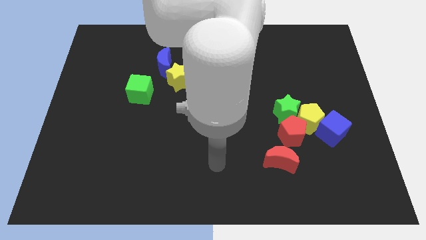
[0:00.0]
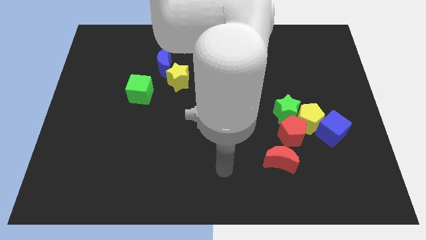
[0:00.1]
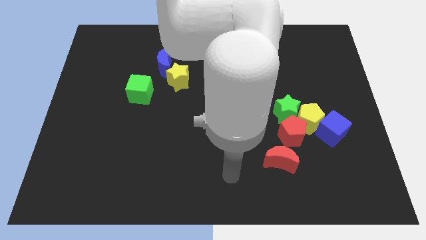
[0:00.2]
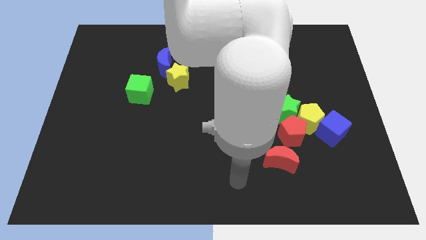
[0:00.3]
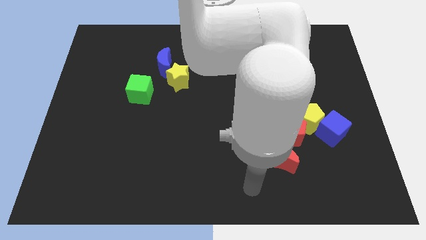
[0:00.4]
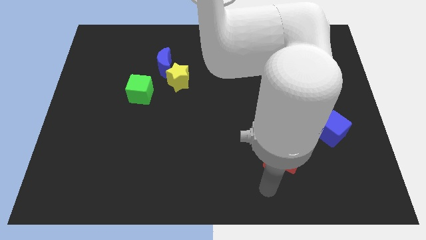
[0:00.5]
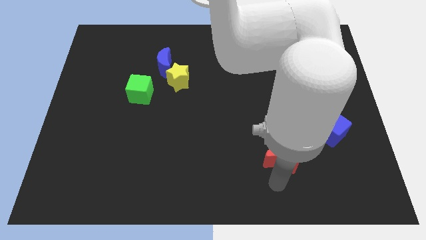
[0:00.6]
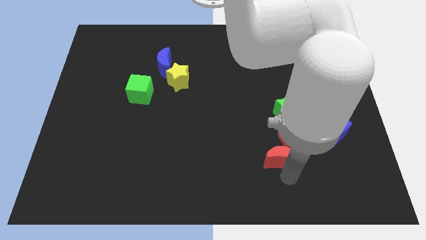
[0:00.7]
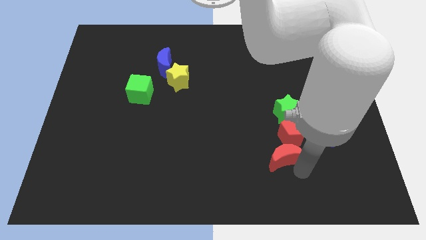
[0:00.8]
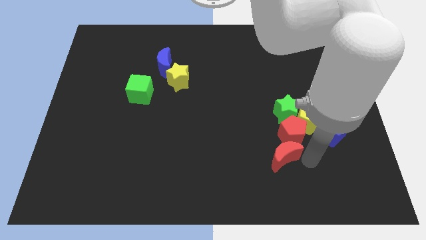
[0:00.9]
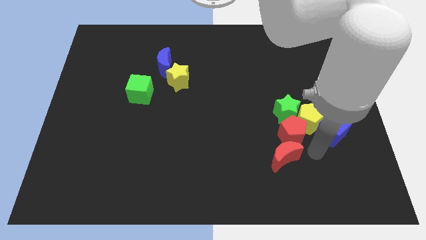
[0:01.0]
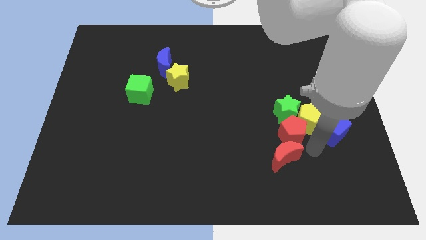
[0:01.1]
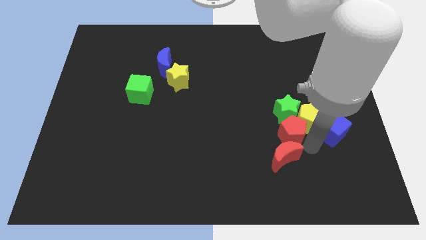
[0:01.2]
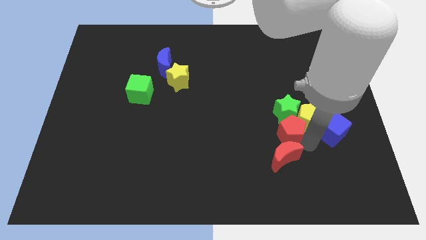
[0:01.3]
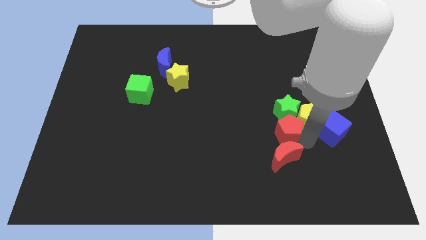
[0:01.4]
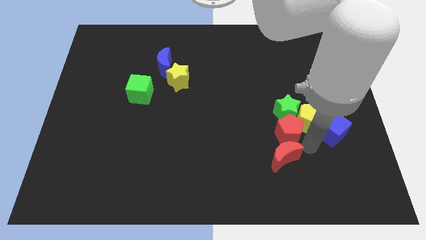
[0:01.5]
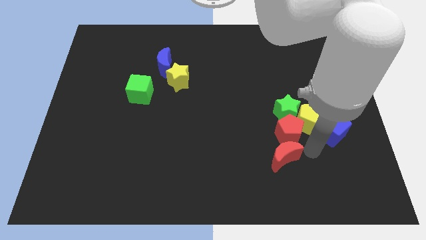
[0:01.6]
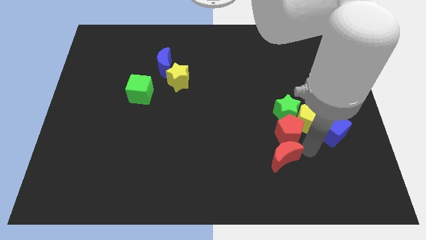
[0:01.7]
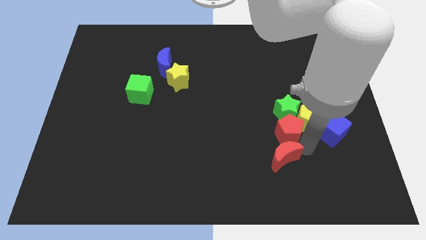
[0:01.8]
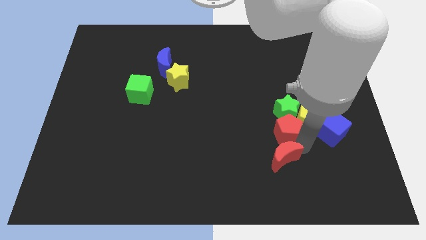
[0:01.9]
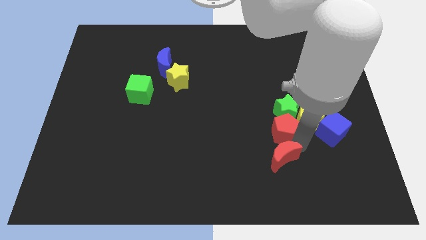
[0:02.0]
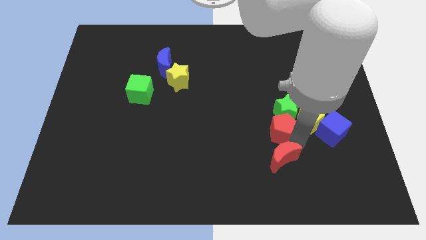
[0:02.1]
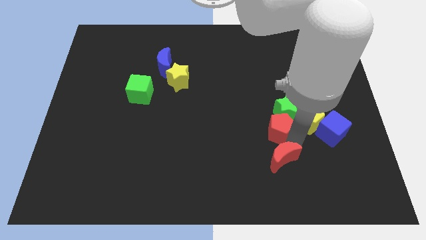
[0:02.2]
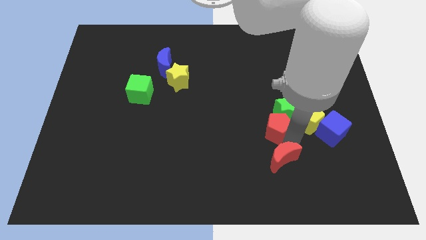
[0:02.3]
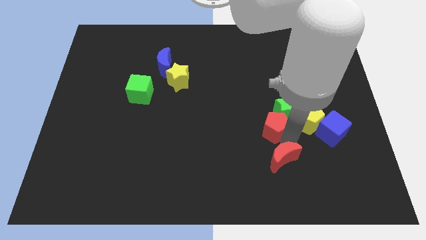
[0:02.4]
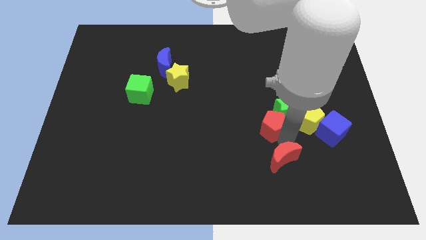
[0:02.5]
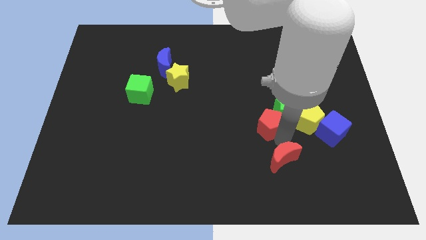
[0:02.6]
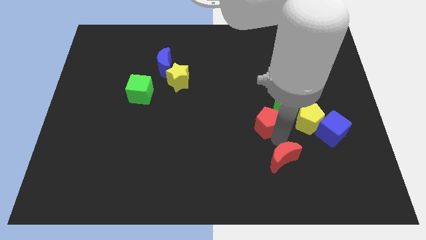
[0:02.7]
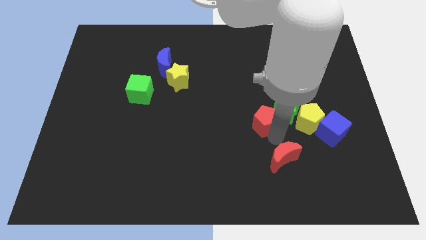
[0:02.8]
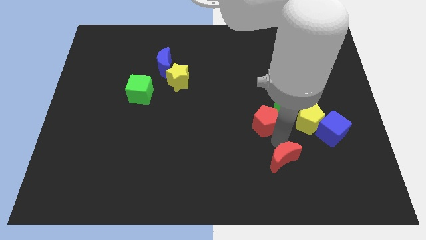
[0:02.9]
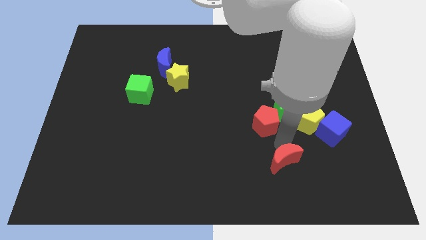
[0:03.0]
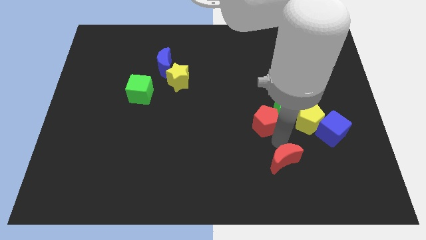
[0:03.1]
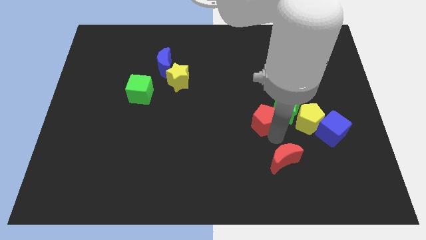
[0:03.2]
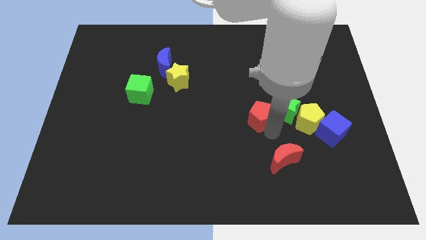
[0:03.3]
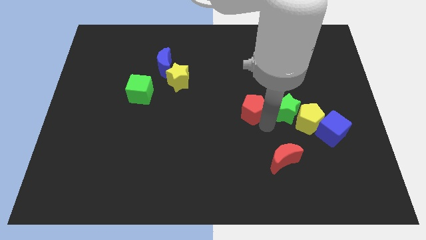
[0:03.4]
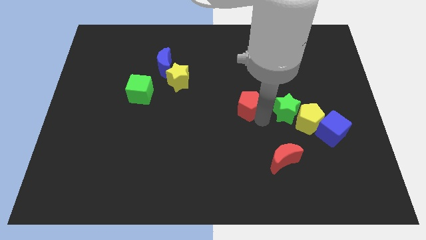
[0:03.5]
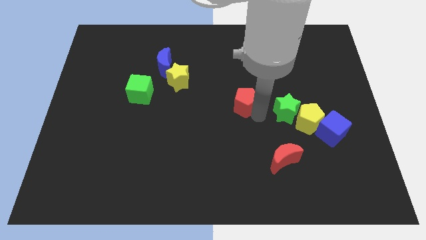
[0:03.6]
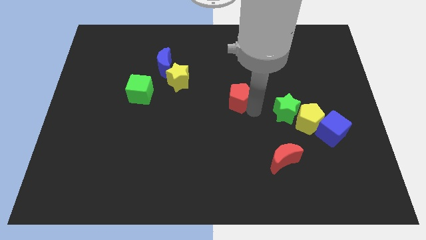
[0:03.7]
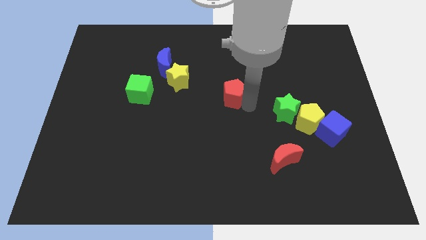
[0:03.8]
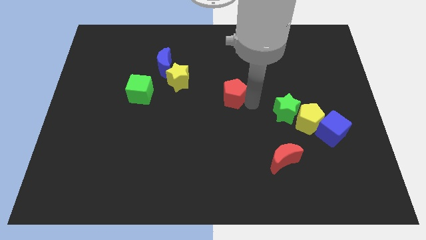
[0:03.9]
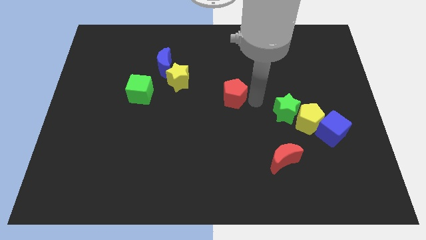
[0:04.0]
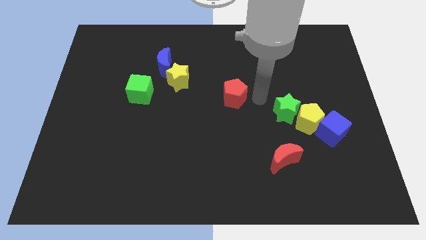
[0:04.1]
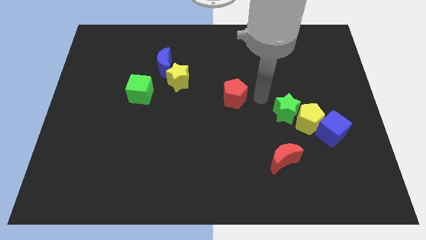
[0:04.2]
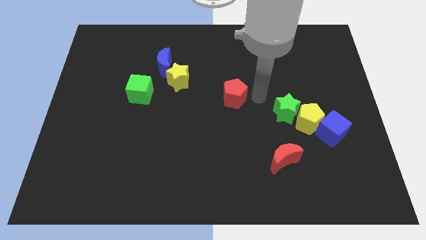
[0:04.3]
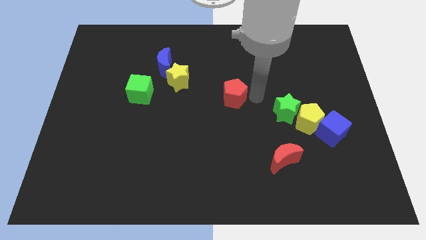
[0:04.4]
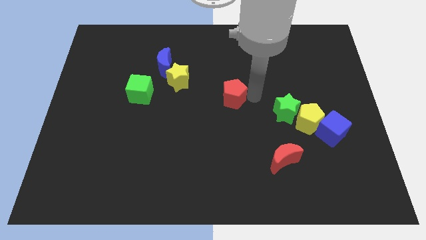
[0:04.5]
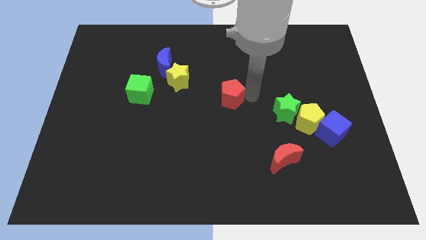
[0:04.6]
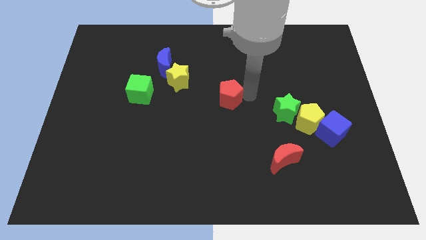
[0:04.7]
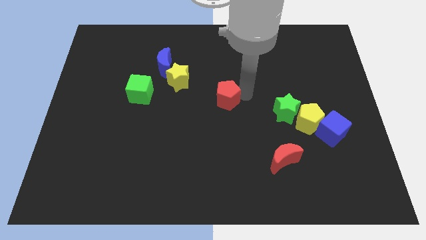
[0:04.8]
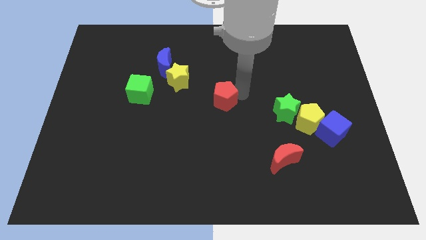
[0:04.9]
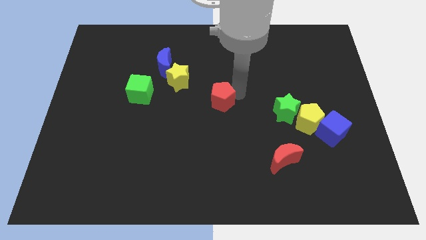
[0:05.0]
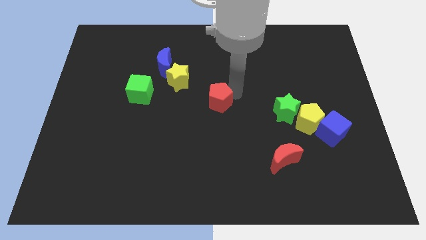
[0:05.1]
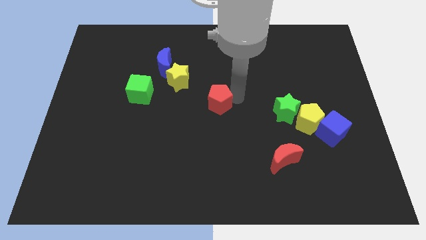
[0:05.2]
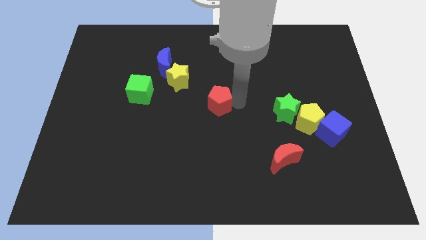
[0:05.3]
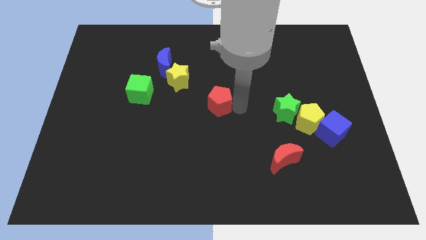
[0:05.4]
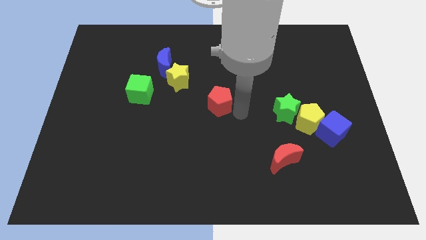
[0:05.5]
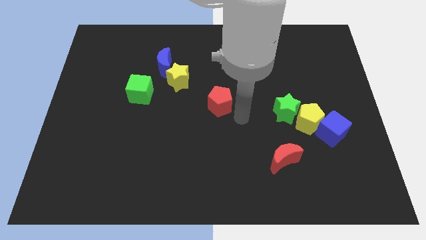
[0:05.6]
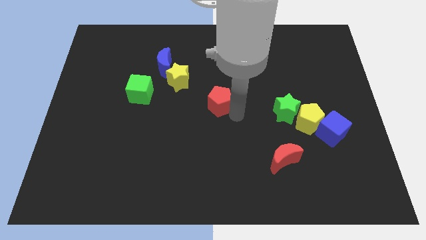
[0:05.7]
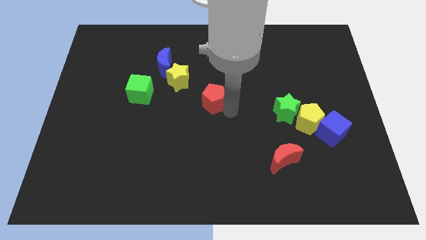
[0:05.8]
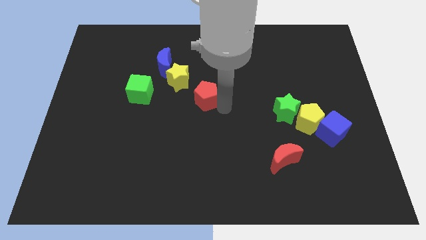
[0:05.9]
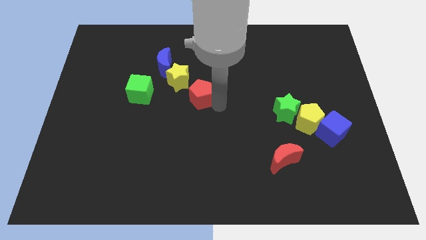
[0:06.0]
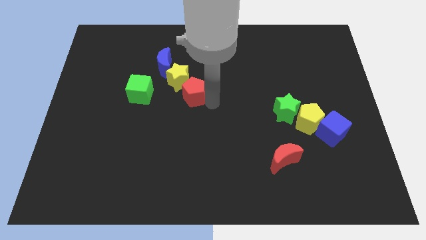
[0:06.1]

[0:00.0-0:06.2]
move the red pentagon next to the yellow star

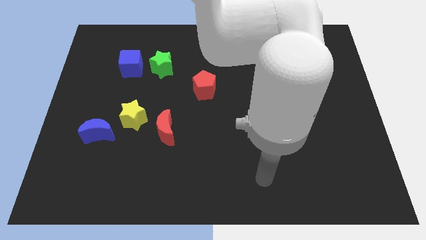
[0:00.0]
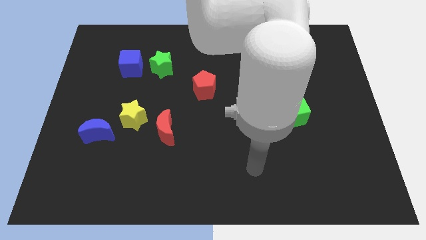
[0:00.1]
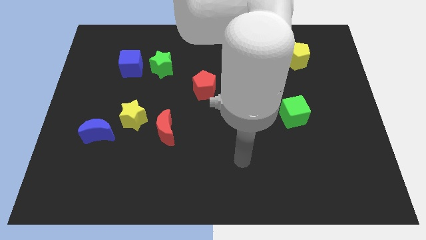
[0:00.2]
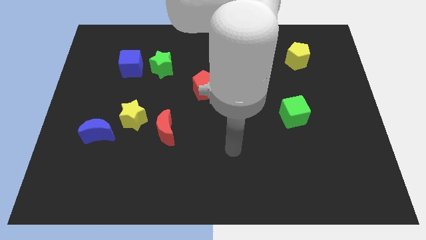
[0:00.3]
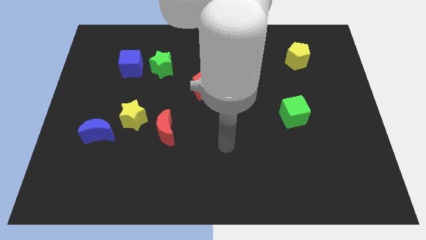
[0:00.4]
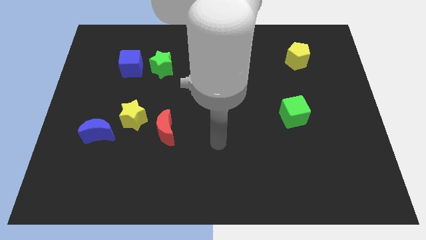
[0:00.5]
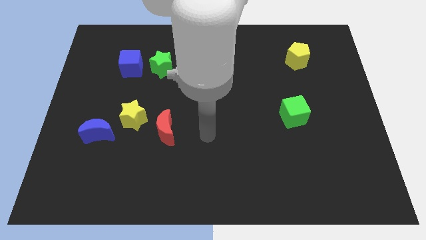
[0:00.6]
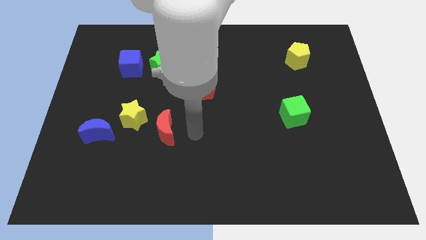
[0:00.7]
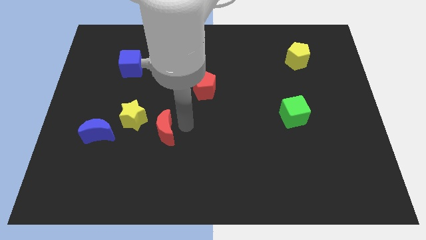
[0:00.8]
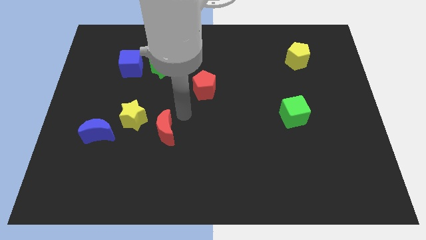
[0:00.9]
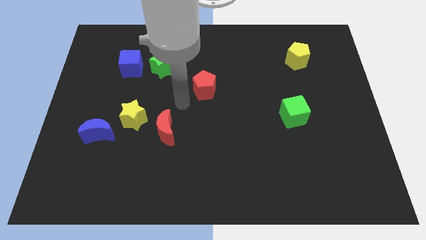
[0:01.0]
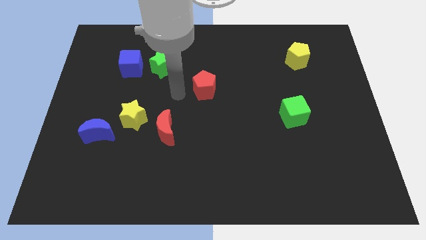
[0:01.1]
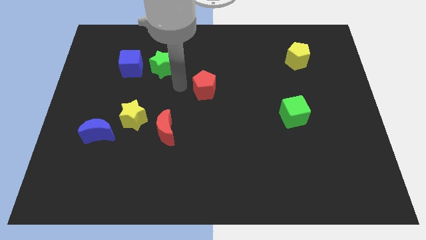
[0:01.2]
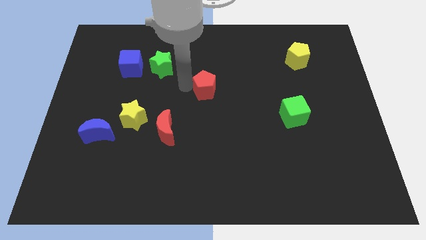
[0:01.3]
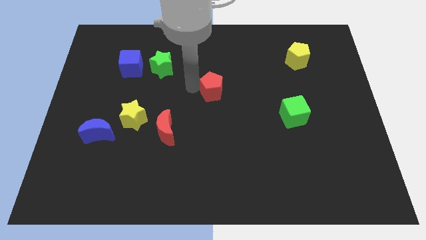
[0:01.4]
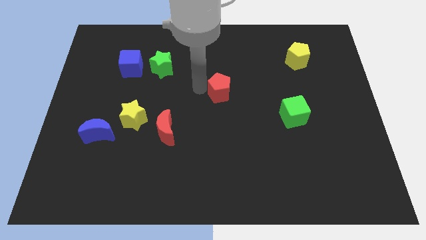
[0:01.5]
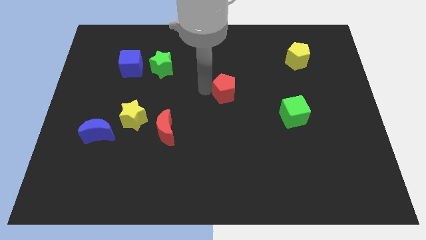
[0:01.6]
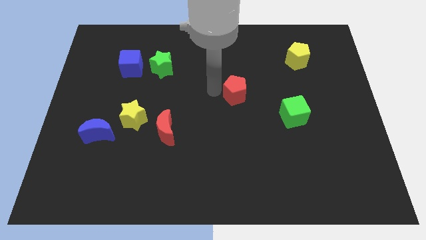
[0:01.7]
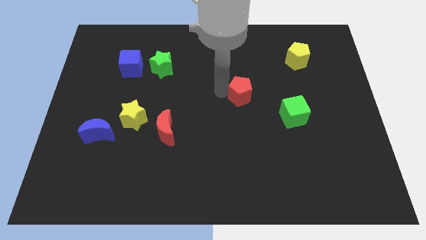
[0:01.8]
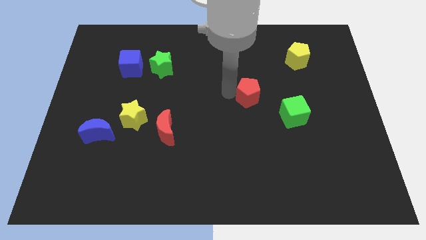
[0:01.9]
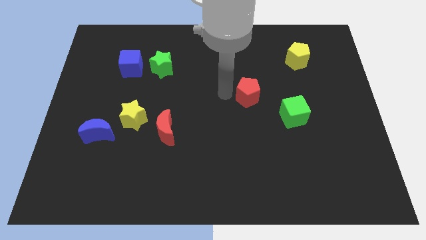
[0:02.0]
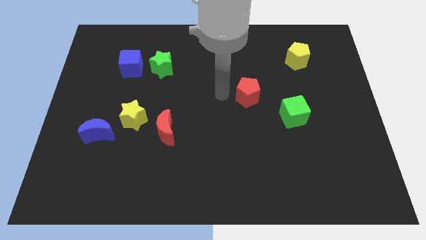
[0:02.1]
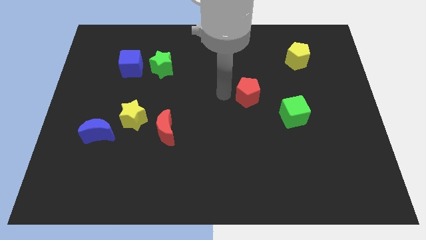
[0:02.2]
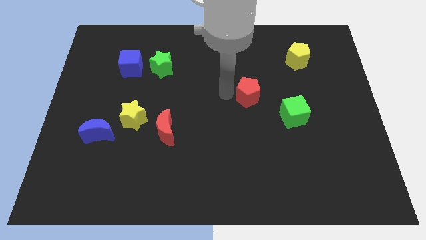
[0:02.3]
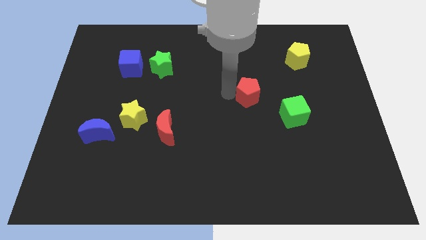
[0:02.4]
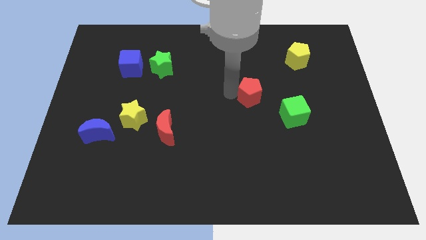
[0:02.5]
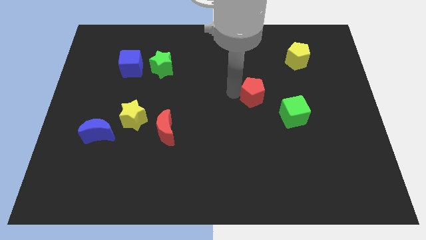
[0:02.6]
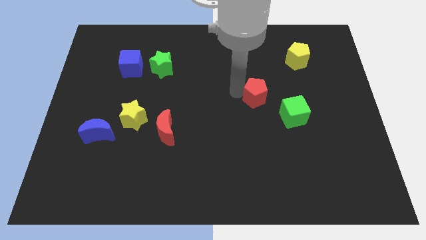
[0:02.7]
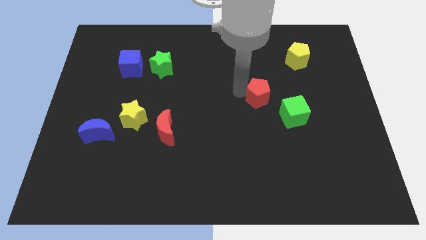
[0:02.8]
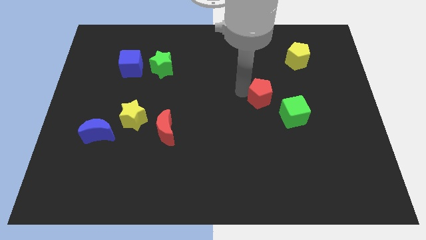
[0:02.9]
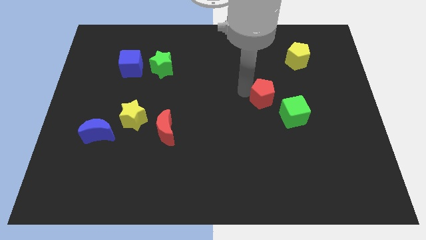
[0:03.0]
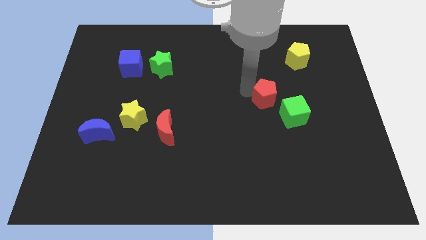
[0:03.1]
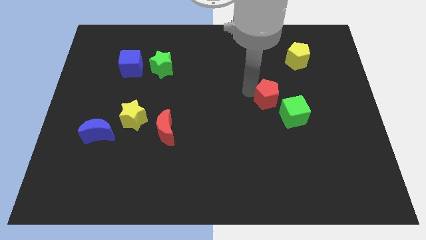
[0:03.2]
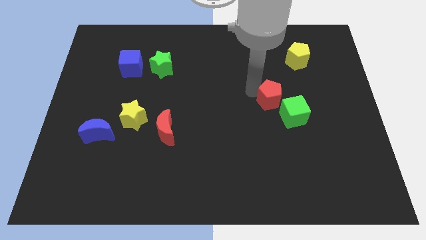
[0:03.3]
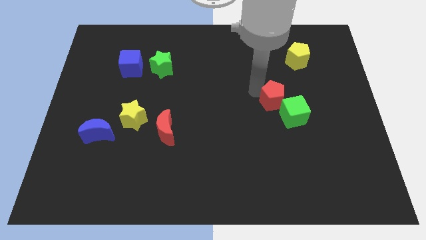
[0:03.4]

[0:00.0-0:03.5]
slide the red pentagon next to the green cube
